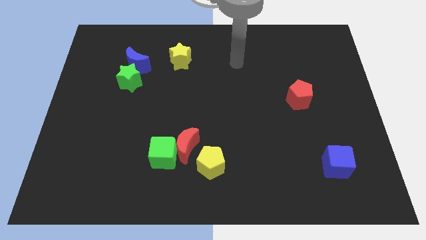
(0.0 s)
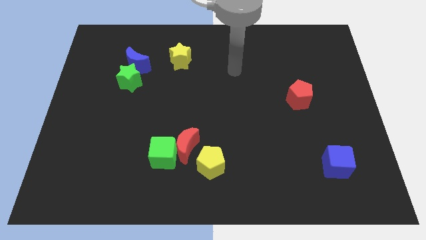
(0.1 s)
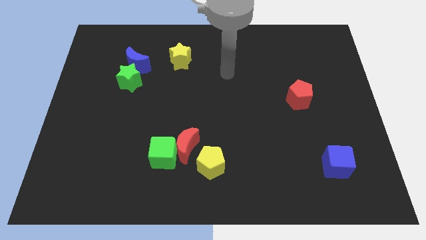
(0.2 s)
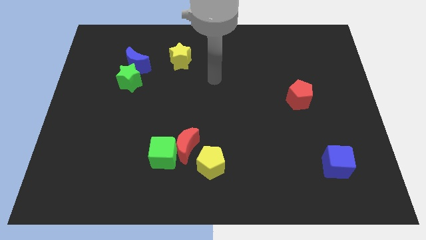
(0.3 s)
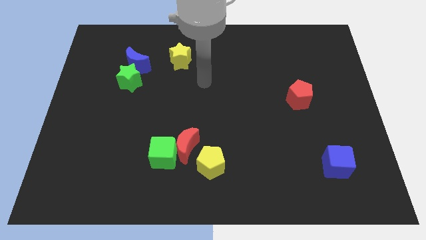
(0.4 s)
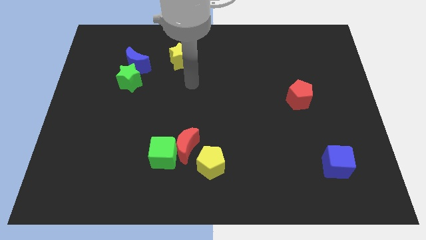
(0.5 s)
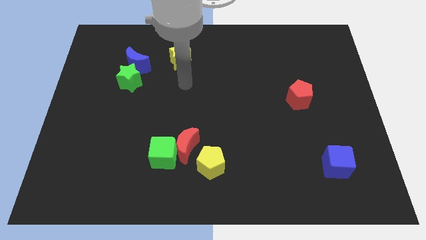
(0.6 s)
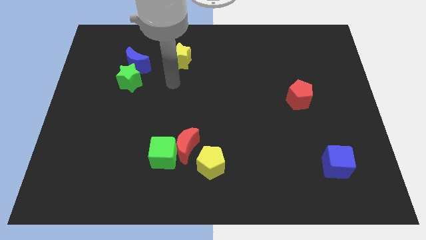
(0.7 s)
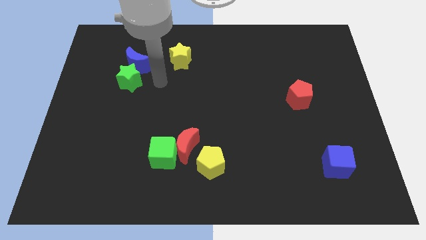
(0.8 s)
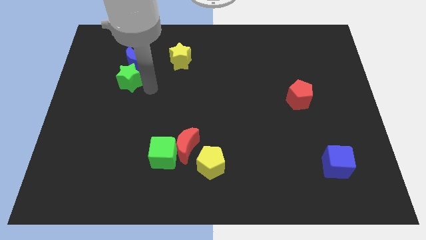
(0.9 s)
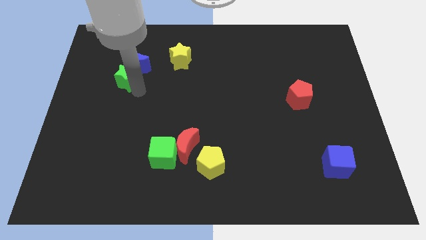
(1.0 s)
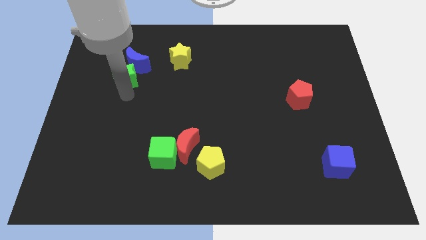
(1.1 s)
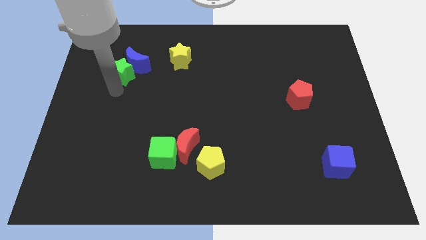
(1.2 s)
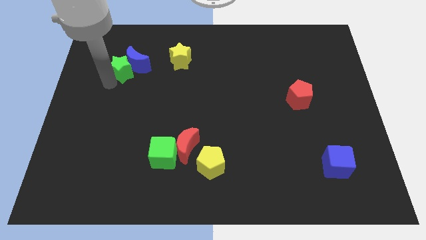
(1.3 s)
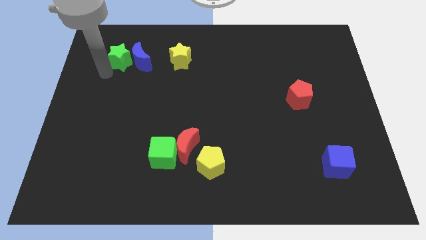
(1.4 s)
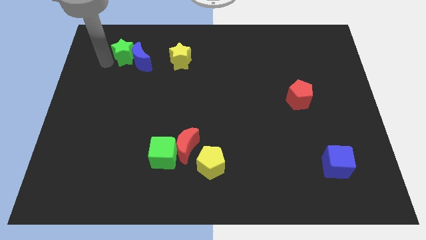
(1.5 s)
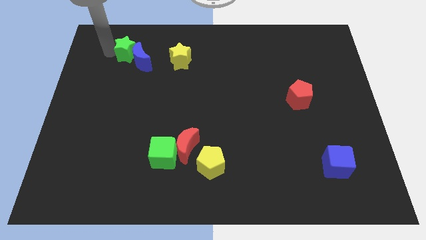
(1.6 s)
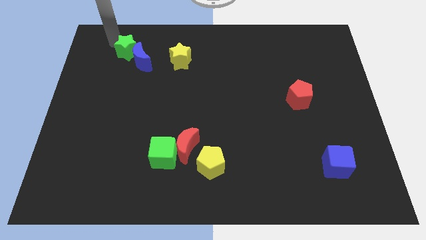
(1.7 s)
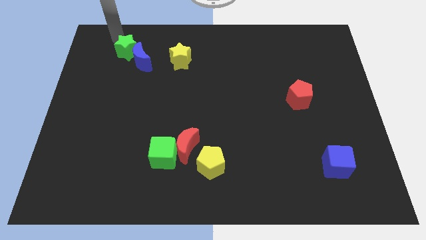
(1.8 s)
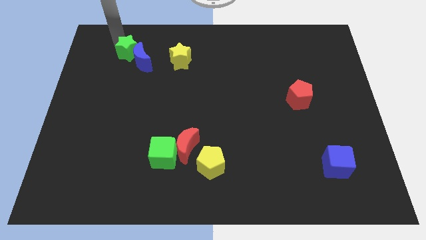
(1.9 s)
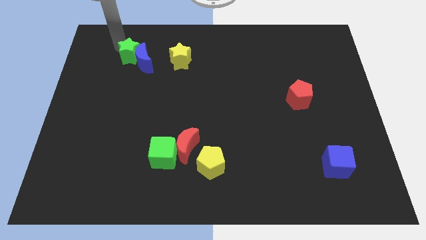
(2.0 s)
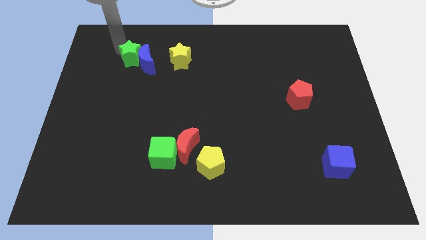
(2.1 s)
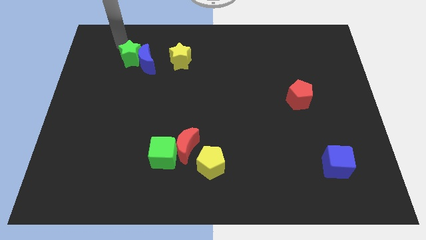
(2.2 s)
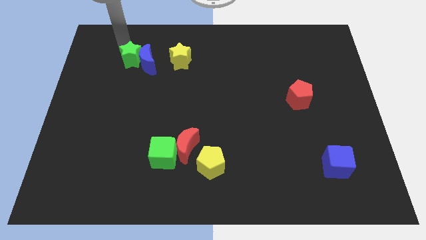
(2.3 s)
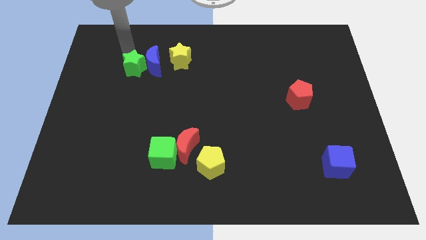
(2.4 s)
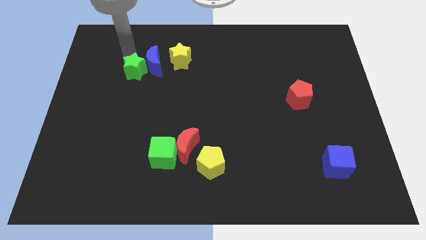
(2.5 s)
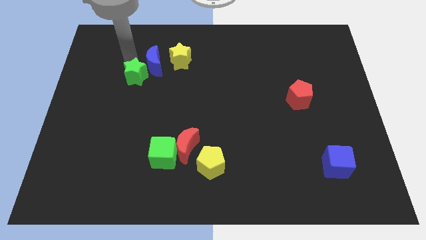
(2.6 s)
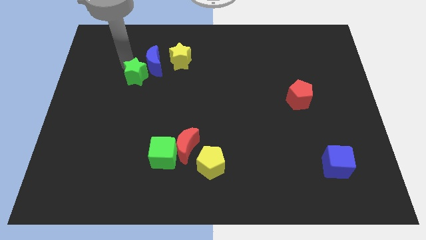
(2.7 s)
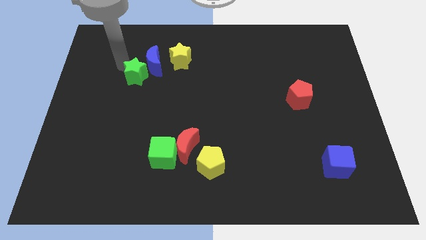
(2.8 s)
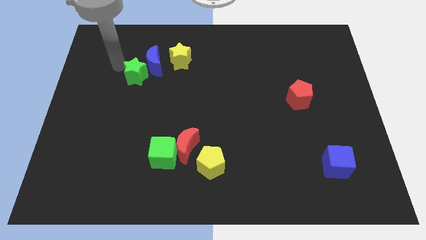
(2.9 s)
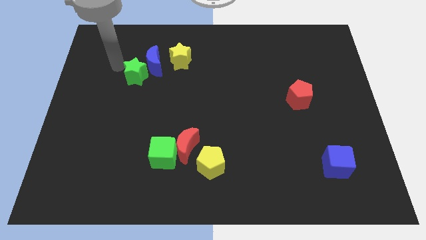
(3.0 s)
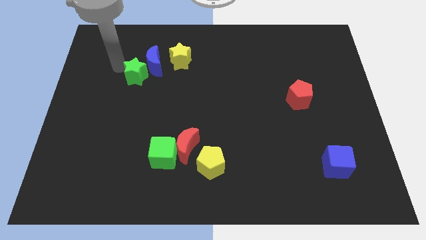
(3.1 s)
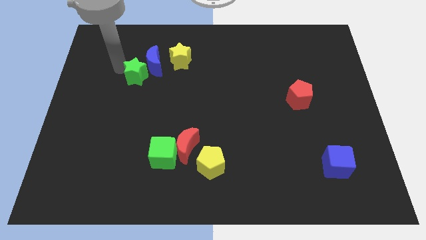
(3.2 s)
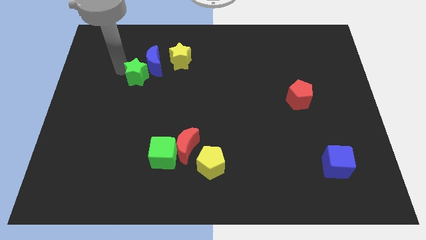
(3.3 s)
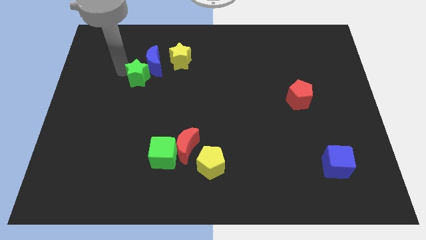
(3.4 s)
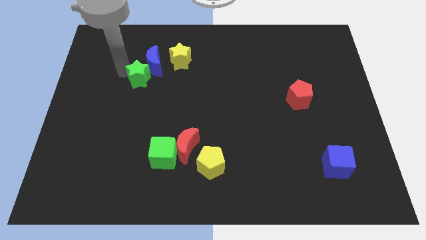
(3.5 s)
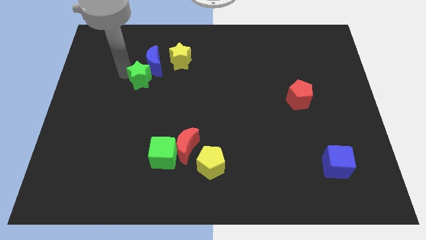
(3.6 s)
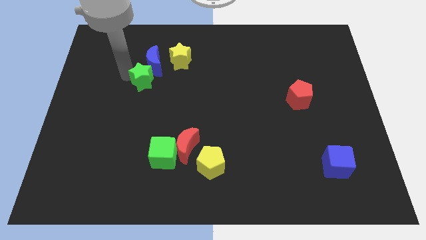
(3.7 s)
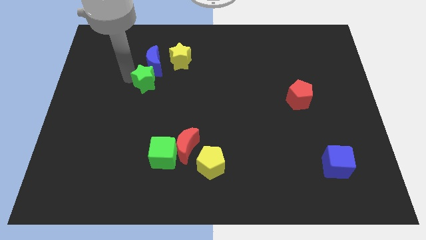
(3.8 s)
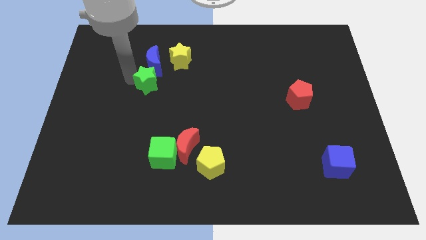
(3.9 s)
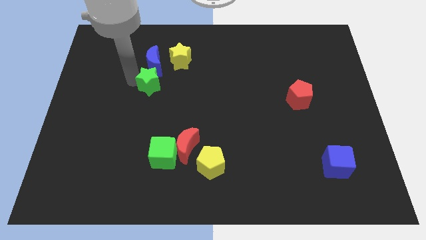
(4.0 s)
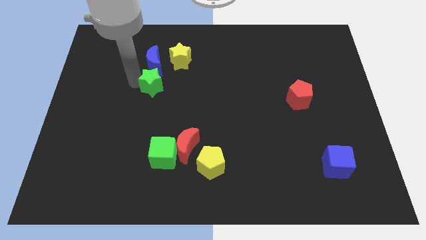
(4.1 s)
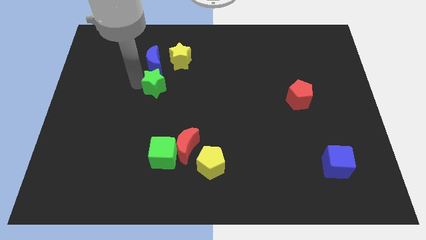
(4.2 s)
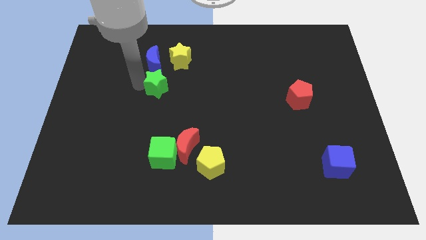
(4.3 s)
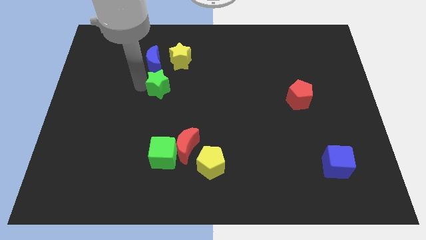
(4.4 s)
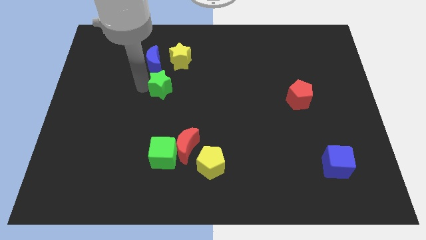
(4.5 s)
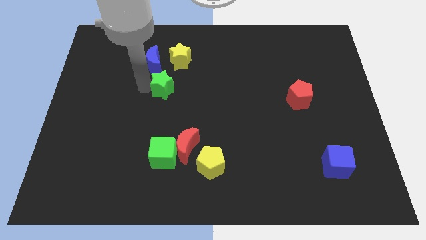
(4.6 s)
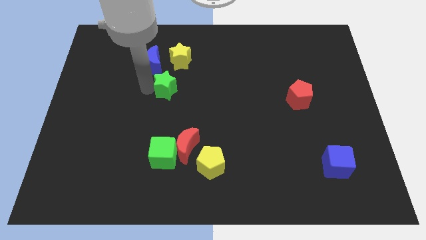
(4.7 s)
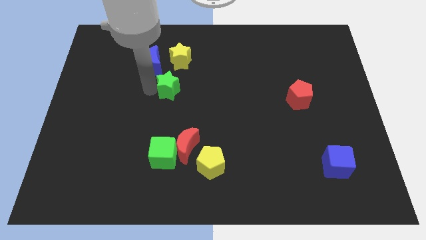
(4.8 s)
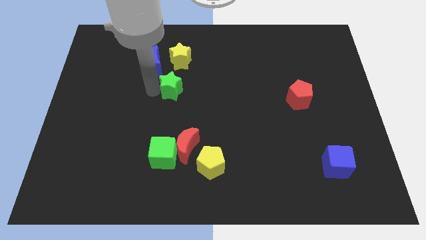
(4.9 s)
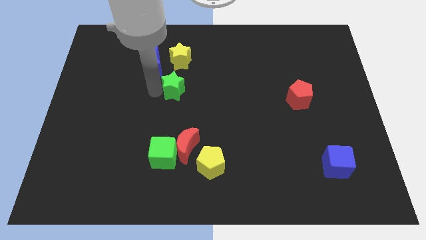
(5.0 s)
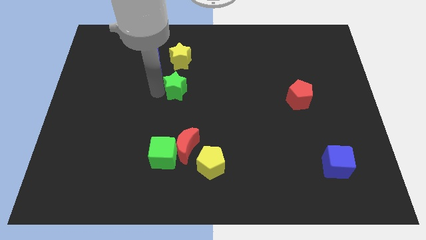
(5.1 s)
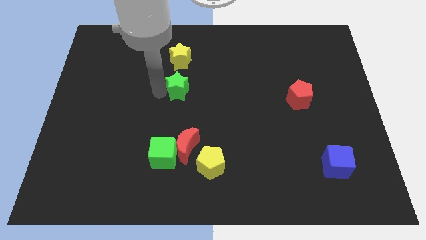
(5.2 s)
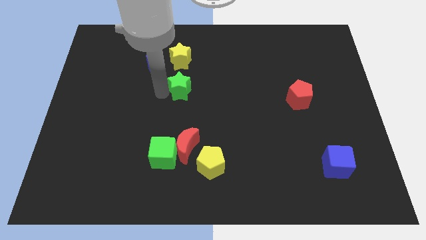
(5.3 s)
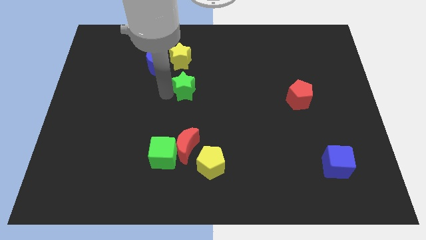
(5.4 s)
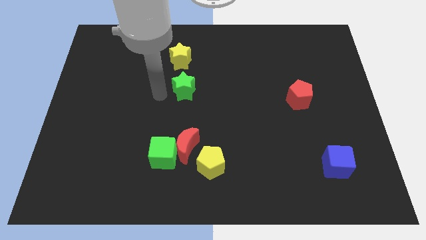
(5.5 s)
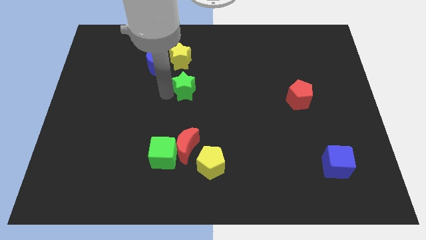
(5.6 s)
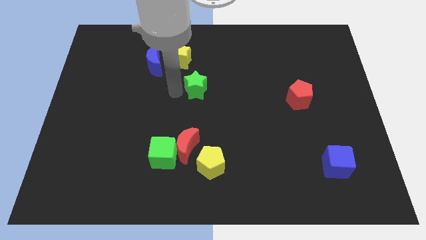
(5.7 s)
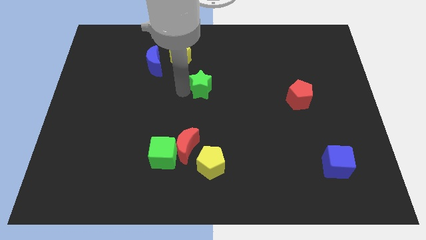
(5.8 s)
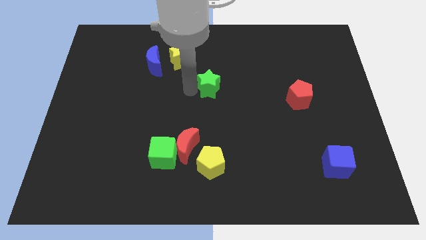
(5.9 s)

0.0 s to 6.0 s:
move the green star right

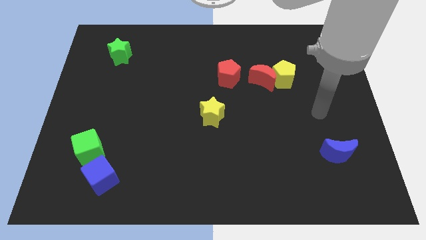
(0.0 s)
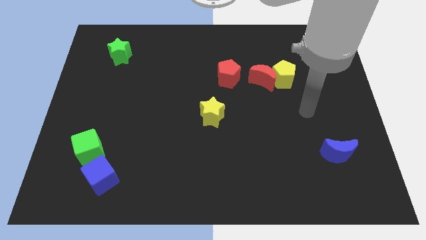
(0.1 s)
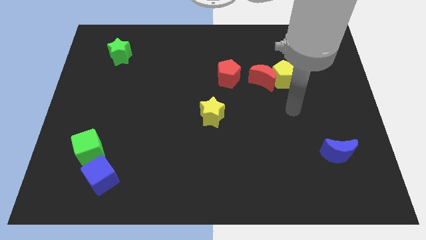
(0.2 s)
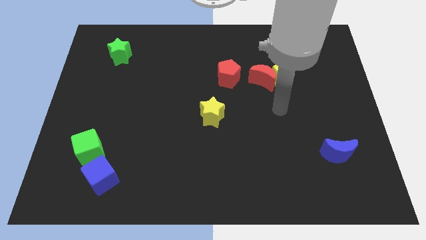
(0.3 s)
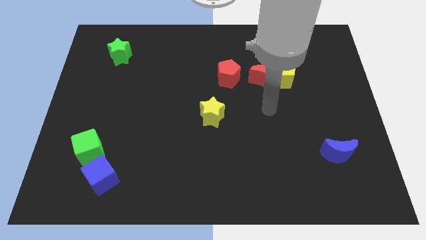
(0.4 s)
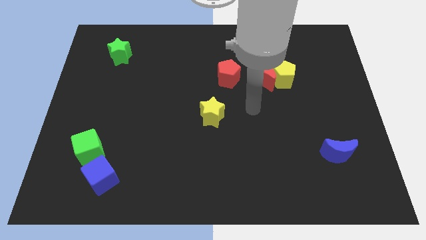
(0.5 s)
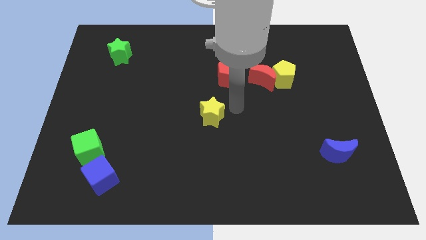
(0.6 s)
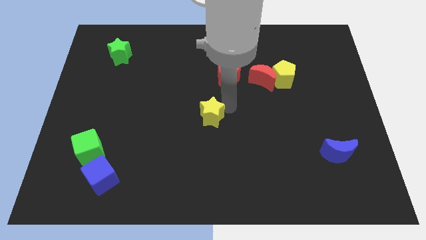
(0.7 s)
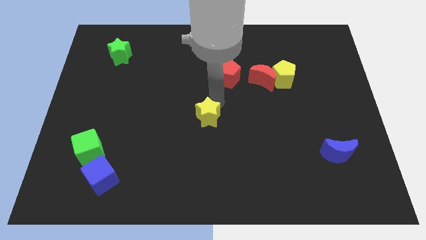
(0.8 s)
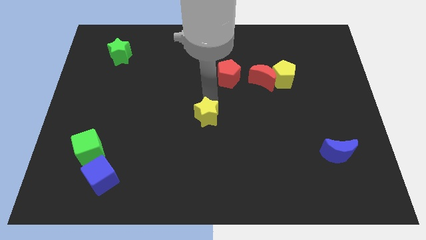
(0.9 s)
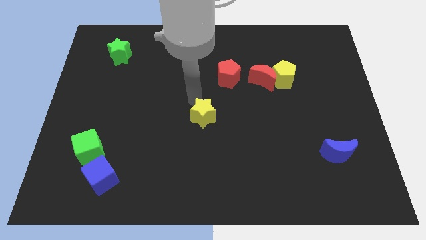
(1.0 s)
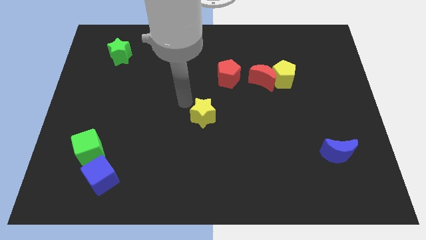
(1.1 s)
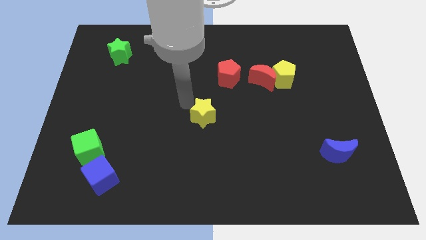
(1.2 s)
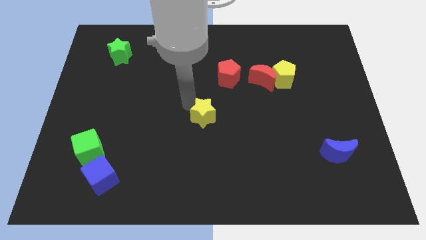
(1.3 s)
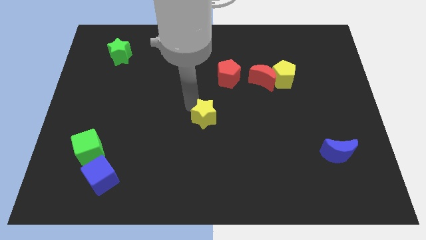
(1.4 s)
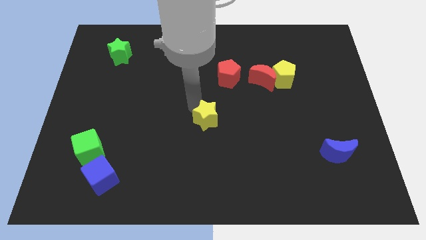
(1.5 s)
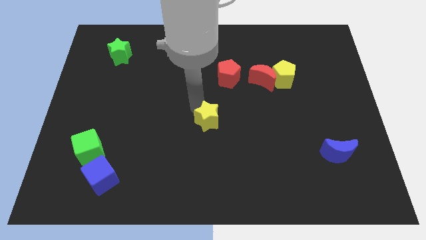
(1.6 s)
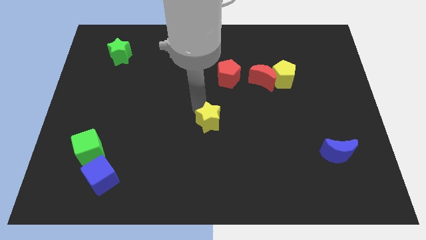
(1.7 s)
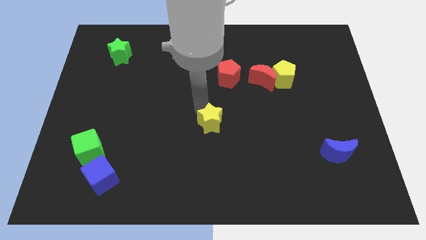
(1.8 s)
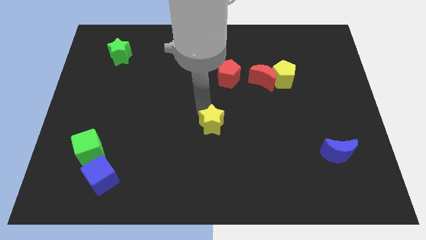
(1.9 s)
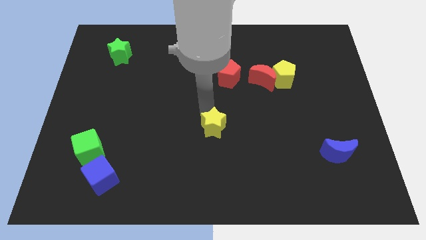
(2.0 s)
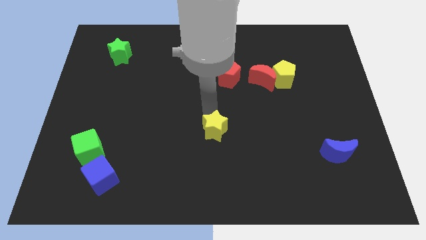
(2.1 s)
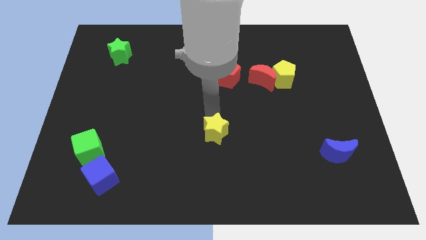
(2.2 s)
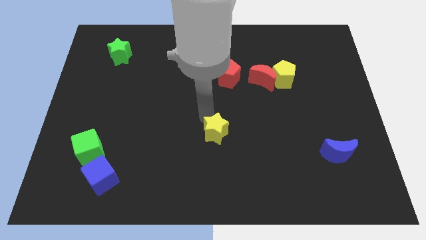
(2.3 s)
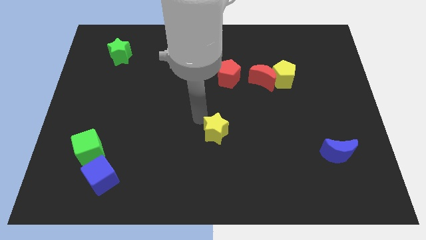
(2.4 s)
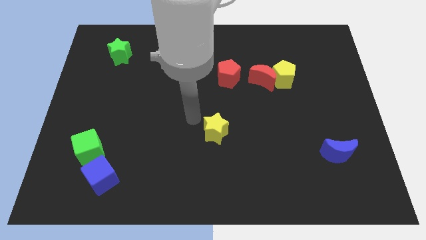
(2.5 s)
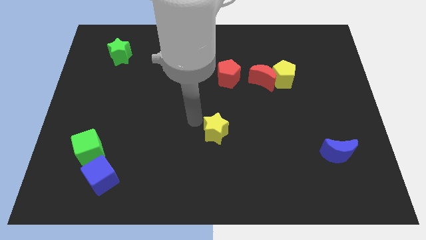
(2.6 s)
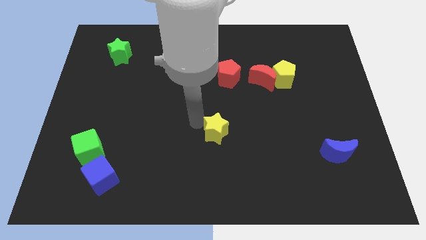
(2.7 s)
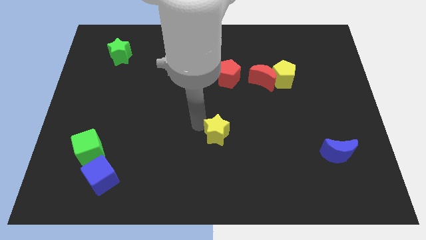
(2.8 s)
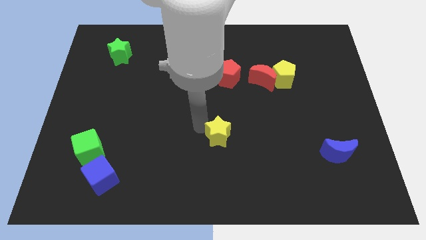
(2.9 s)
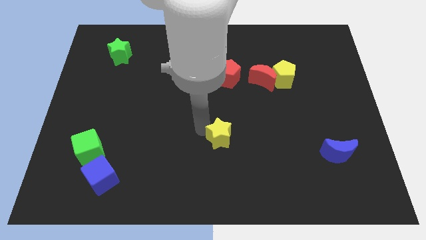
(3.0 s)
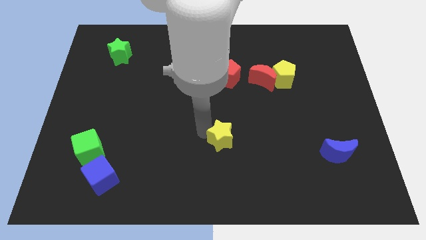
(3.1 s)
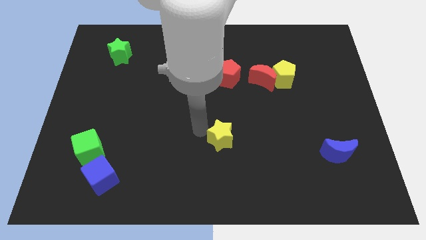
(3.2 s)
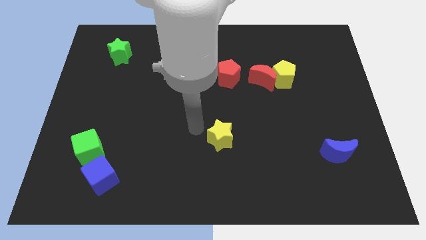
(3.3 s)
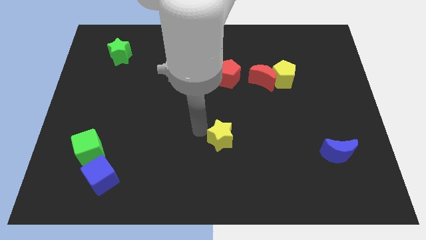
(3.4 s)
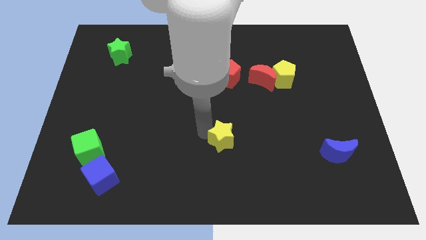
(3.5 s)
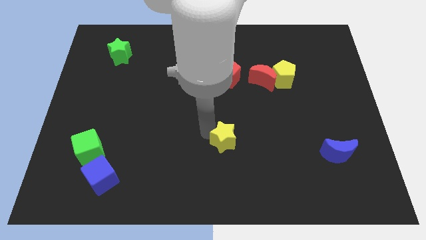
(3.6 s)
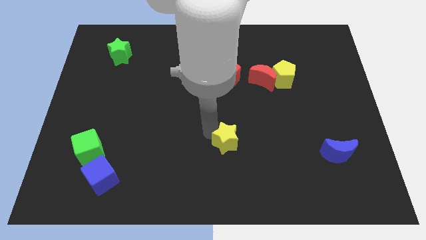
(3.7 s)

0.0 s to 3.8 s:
move the yellow star down and to the right diagonally slightly
